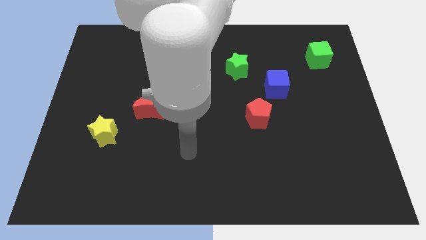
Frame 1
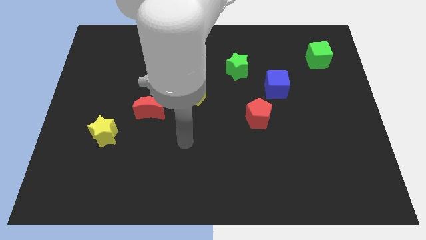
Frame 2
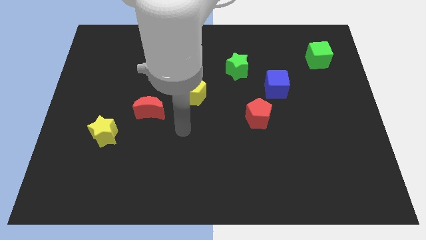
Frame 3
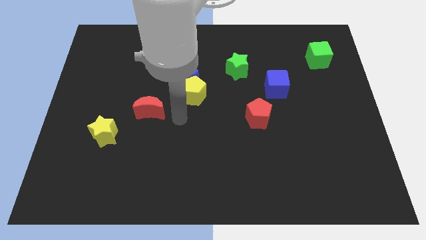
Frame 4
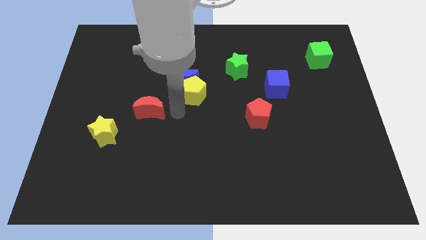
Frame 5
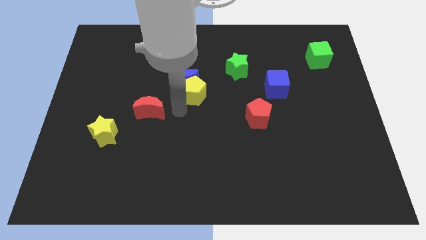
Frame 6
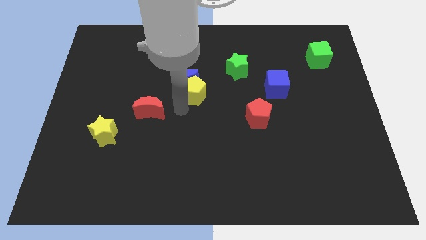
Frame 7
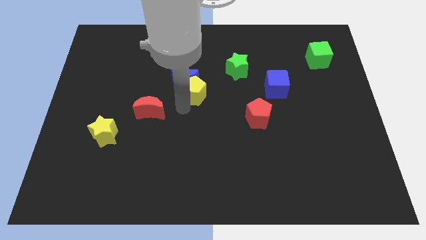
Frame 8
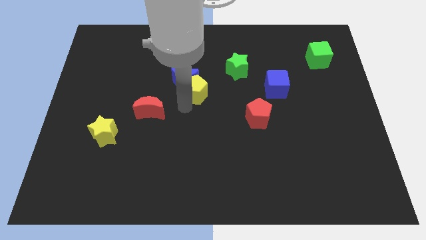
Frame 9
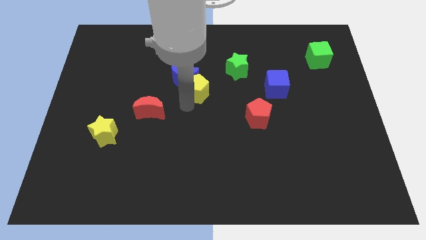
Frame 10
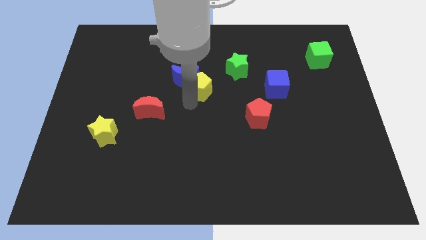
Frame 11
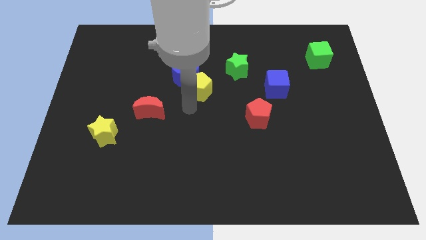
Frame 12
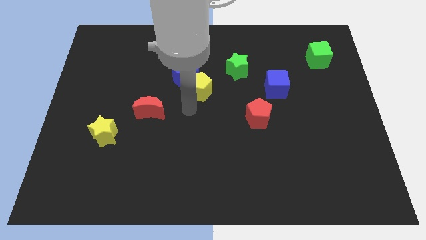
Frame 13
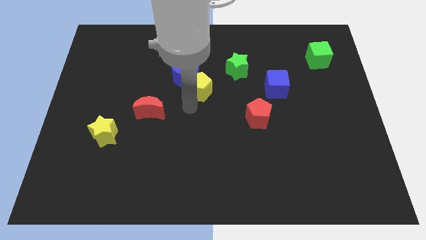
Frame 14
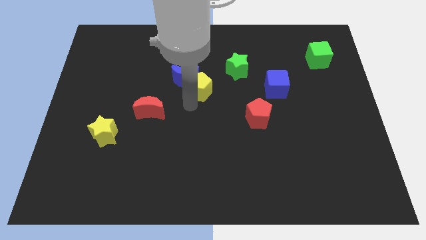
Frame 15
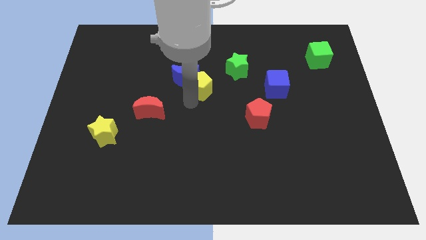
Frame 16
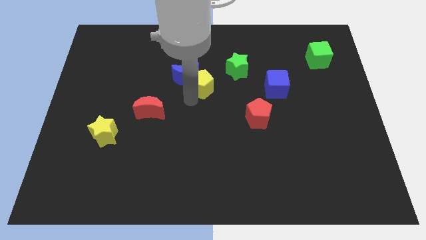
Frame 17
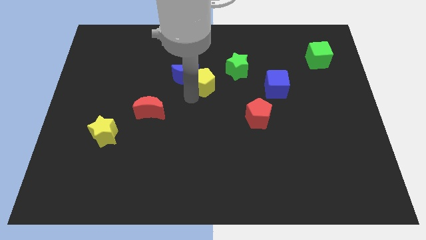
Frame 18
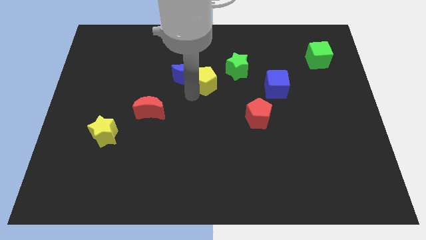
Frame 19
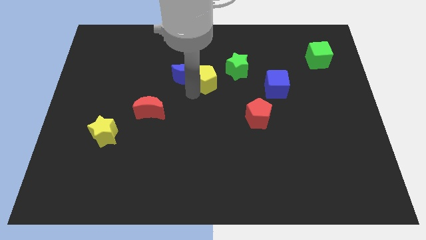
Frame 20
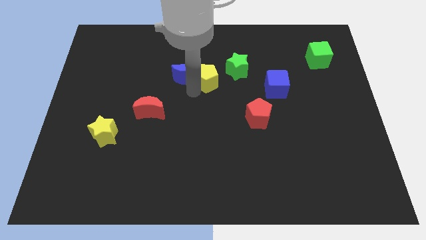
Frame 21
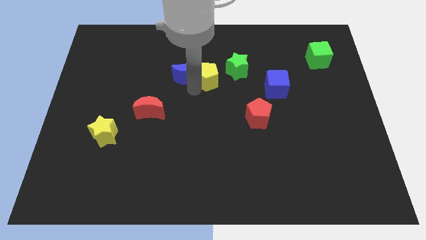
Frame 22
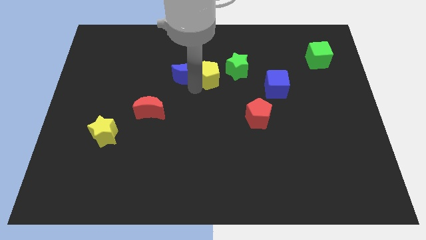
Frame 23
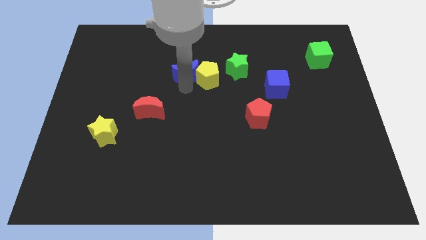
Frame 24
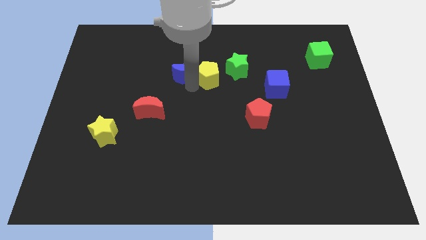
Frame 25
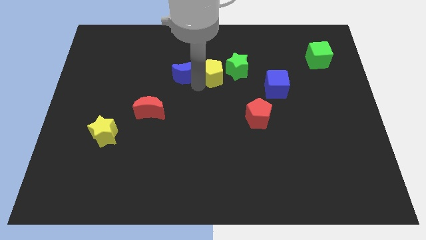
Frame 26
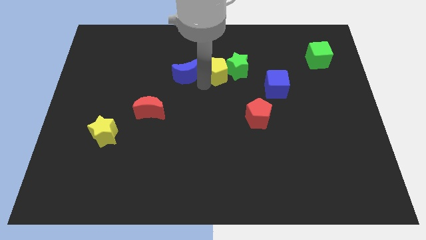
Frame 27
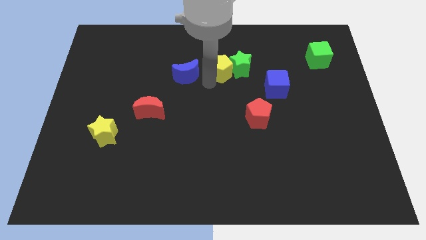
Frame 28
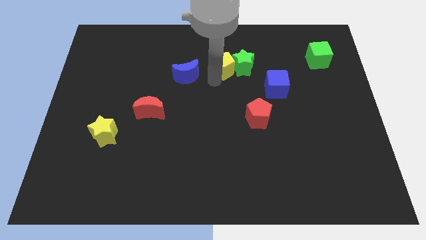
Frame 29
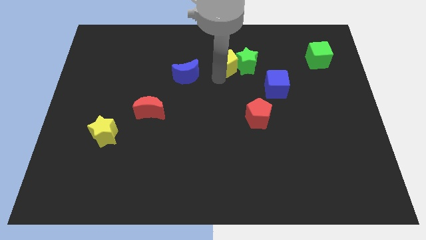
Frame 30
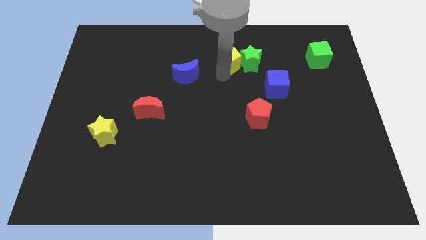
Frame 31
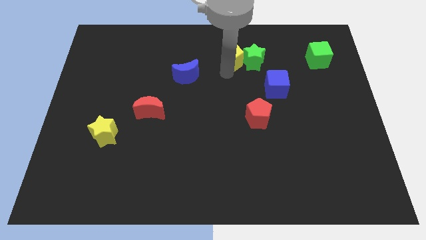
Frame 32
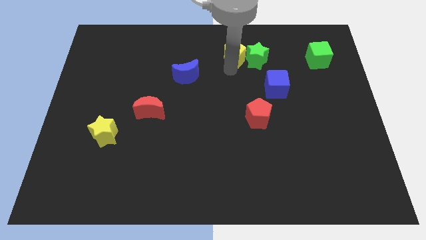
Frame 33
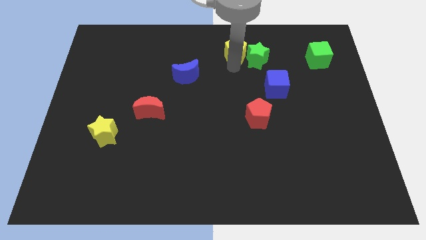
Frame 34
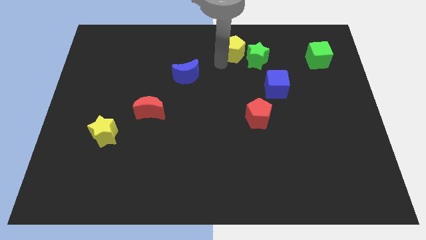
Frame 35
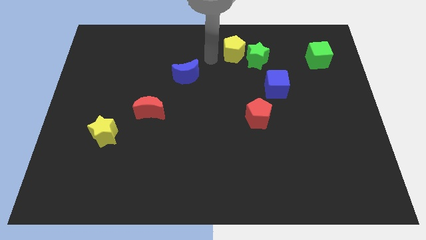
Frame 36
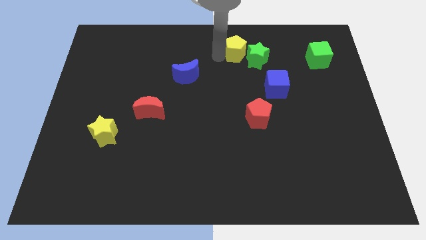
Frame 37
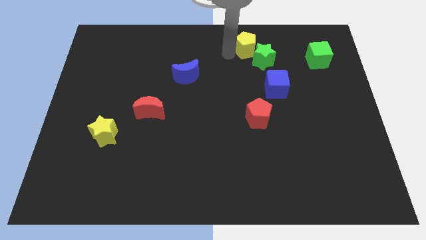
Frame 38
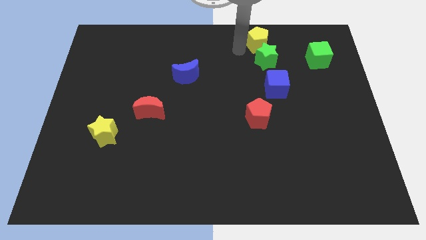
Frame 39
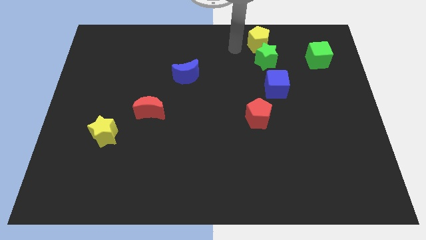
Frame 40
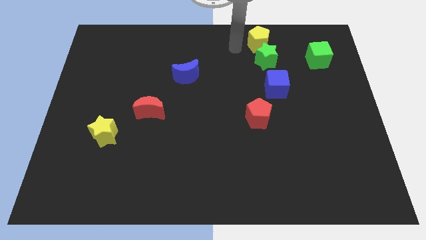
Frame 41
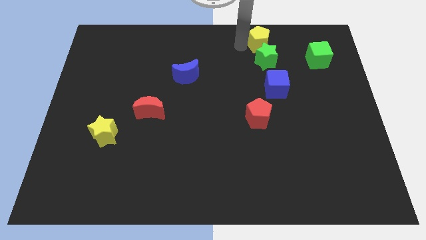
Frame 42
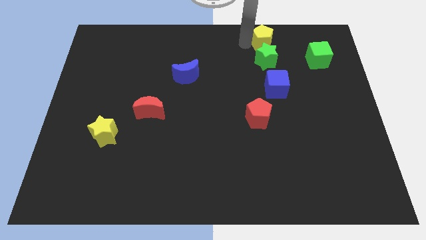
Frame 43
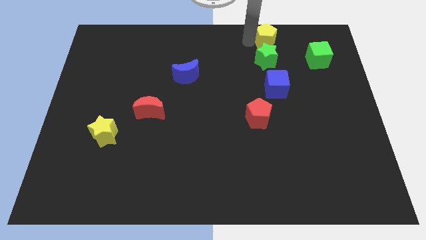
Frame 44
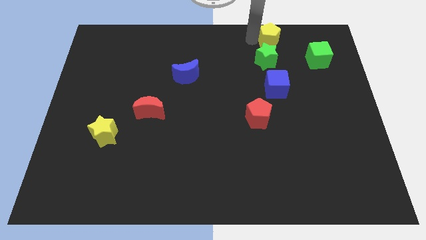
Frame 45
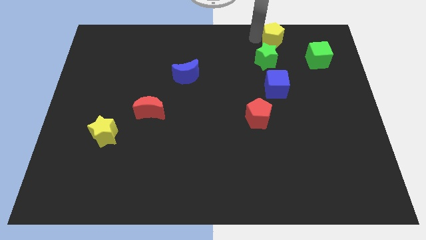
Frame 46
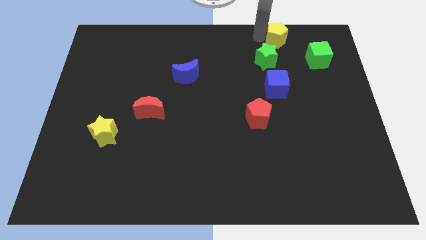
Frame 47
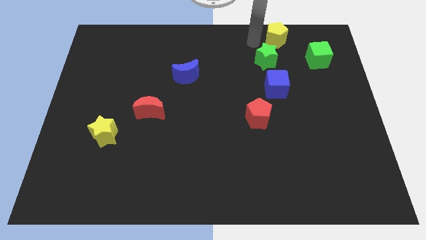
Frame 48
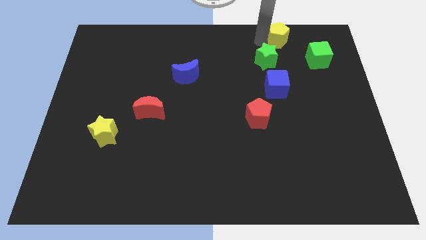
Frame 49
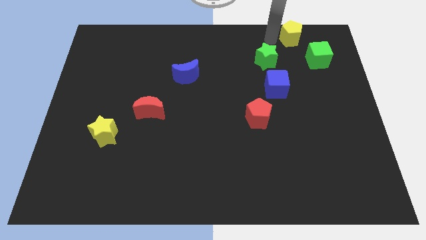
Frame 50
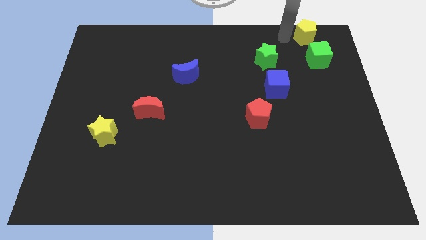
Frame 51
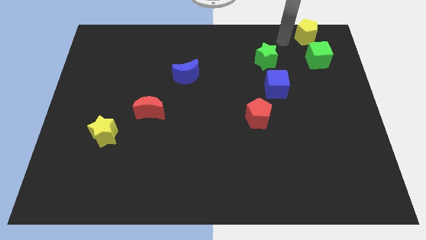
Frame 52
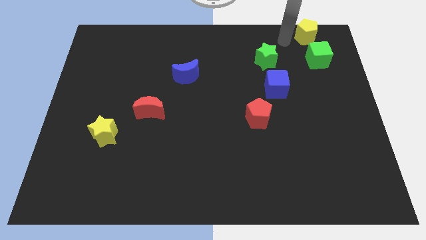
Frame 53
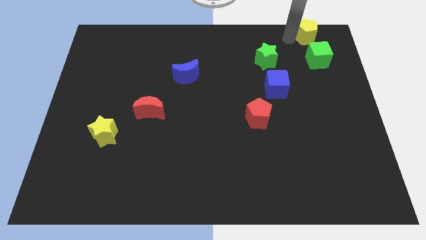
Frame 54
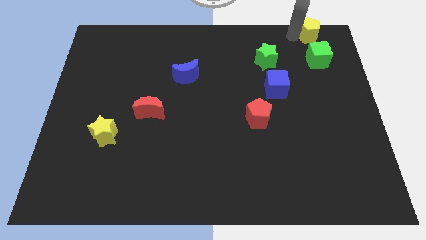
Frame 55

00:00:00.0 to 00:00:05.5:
slide the yellow pentagon to the top right

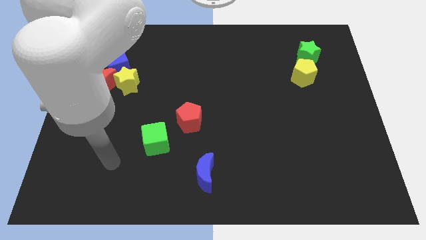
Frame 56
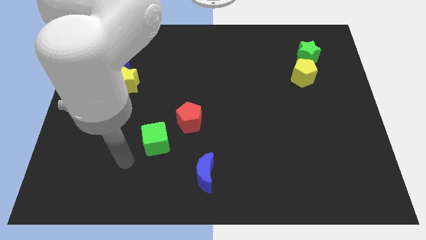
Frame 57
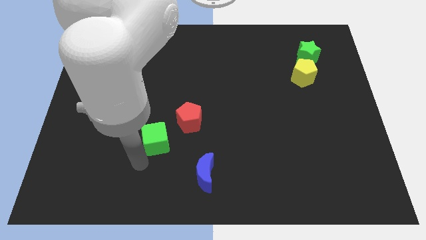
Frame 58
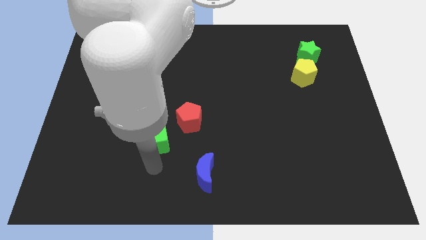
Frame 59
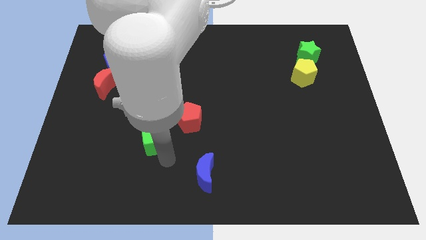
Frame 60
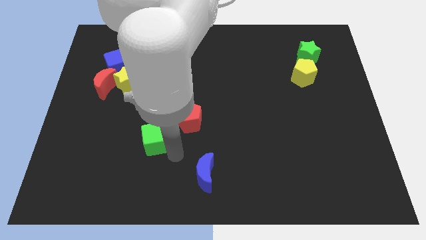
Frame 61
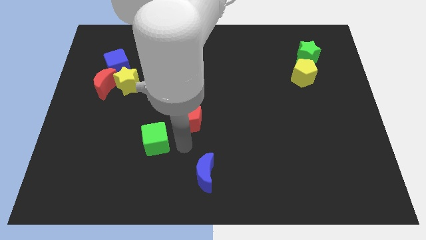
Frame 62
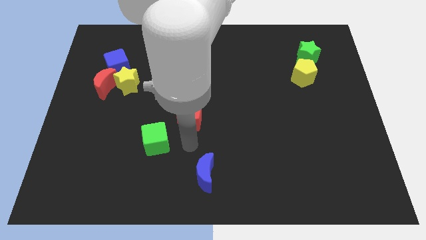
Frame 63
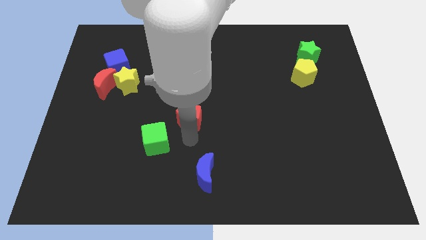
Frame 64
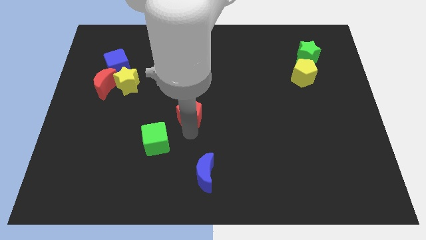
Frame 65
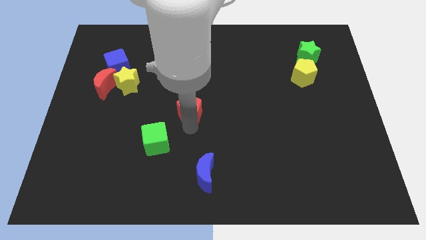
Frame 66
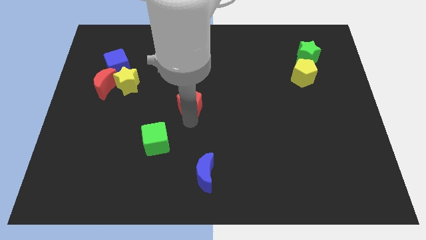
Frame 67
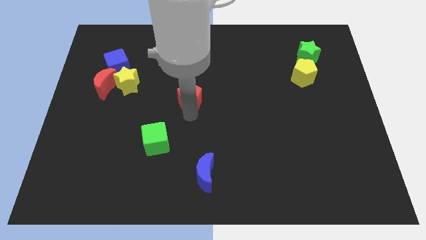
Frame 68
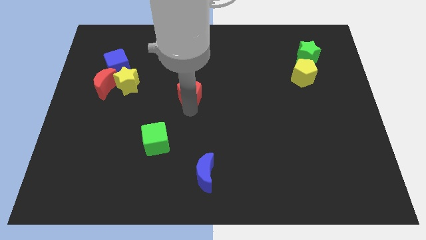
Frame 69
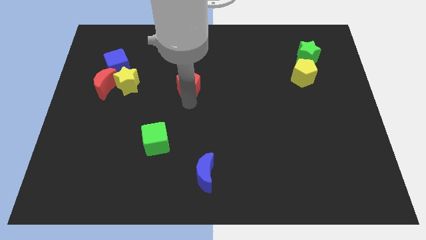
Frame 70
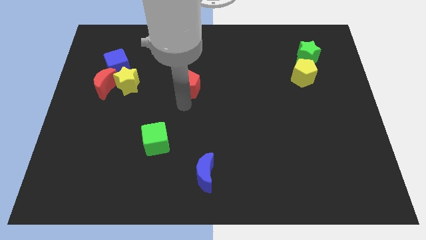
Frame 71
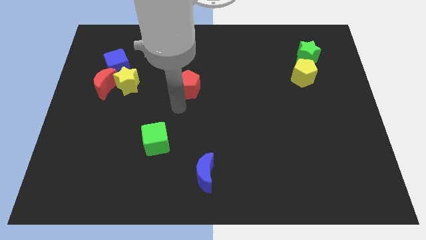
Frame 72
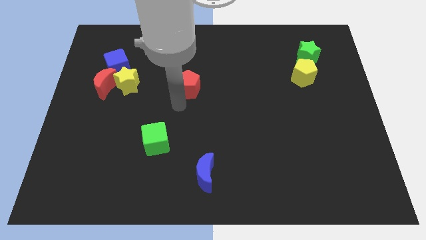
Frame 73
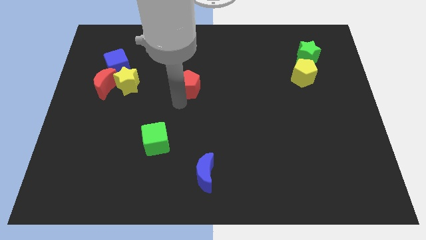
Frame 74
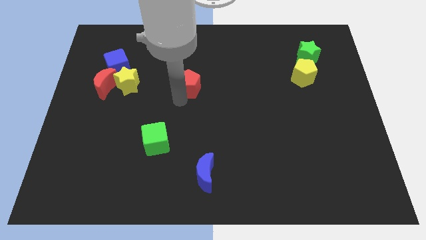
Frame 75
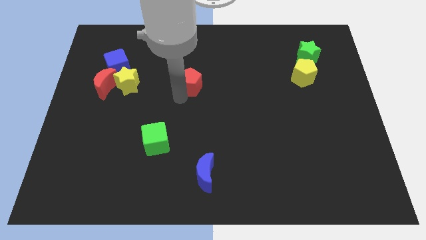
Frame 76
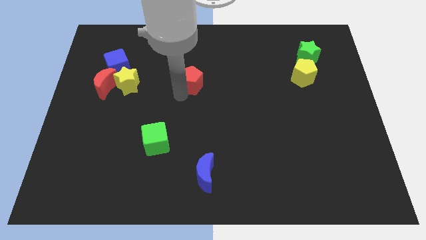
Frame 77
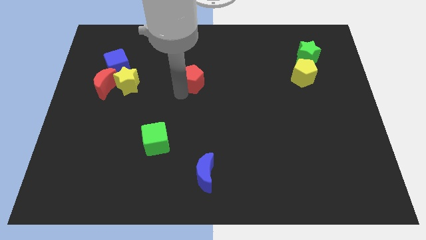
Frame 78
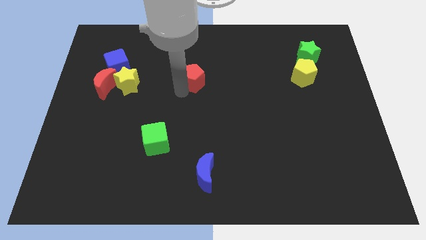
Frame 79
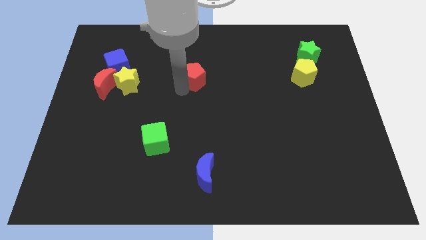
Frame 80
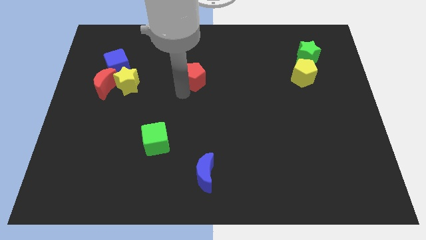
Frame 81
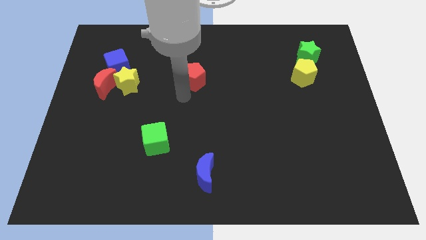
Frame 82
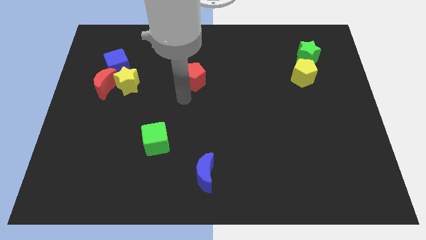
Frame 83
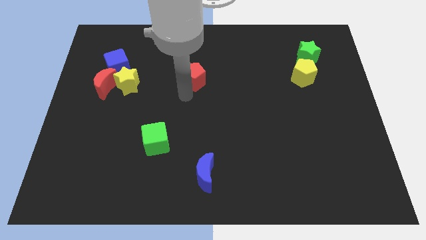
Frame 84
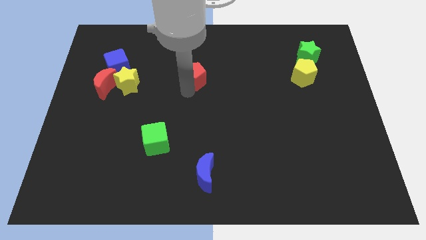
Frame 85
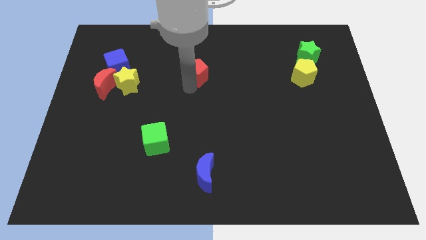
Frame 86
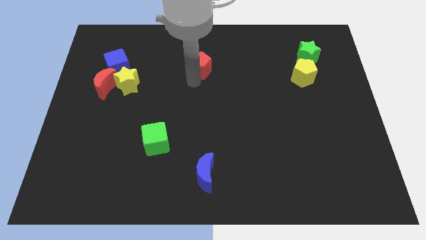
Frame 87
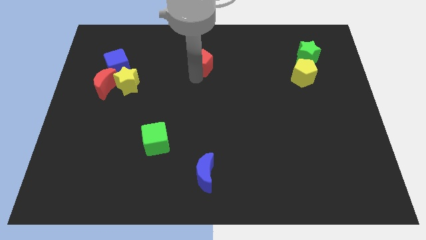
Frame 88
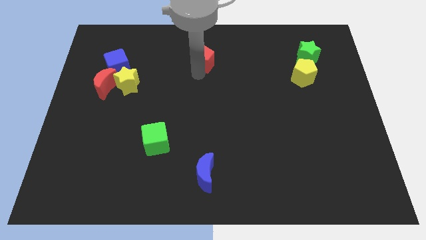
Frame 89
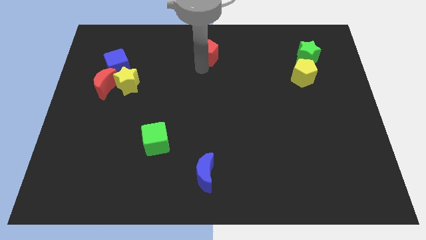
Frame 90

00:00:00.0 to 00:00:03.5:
put the red pentagon to the towards your base
